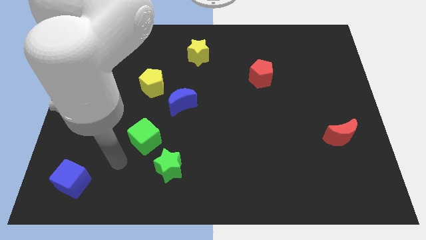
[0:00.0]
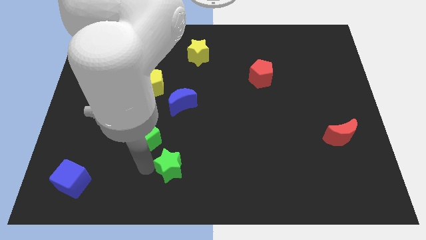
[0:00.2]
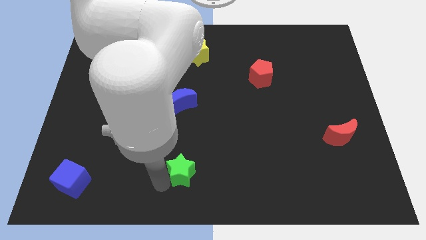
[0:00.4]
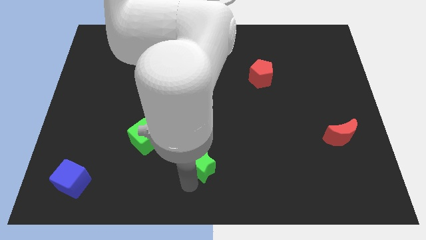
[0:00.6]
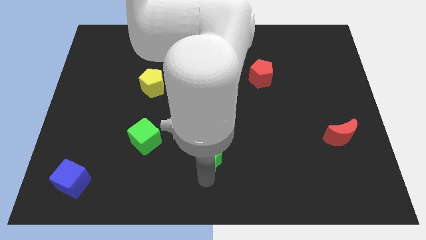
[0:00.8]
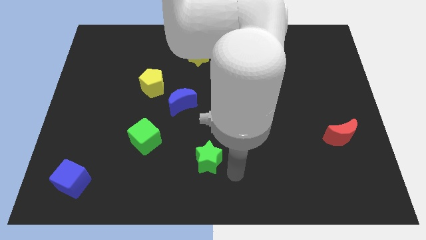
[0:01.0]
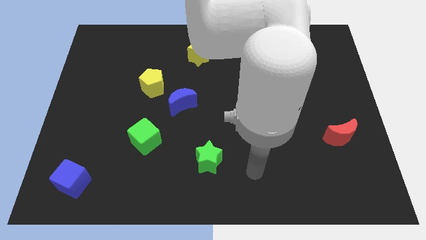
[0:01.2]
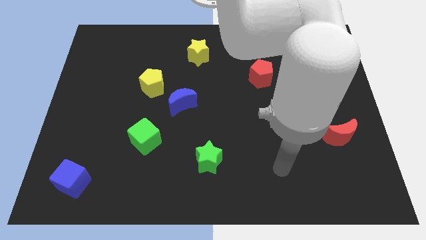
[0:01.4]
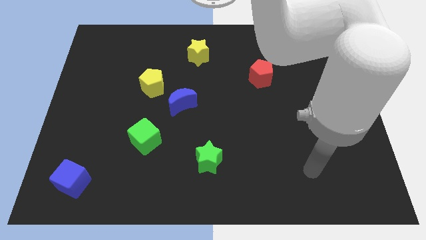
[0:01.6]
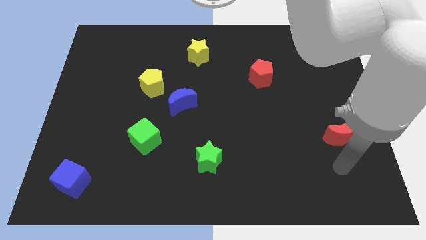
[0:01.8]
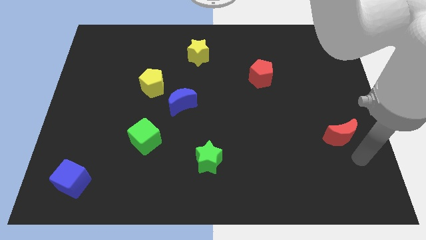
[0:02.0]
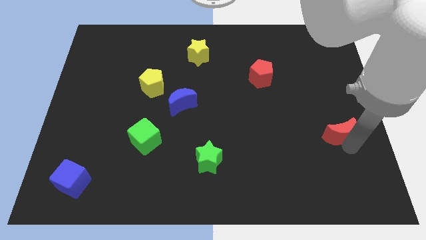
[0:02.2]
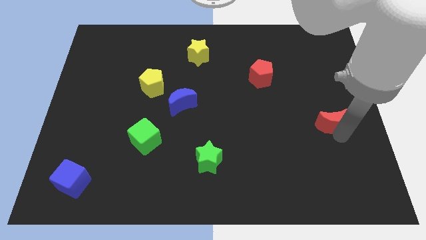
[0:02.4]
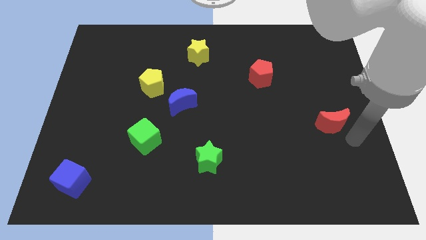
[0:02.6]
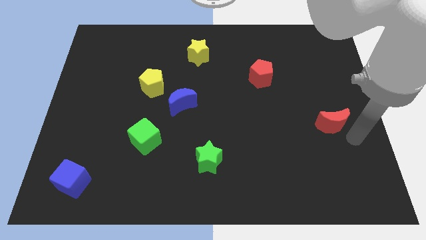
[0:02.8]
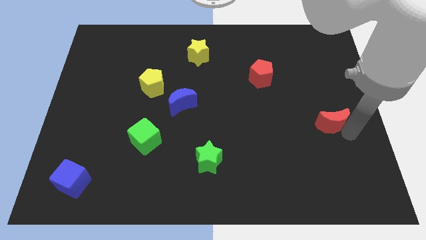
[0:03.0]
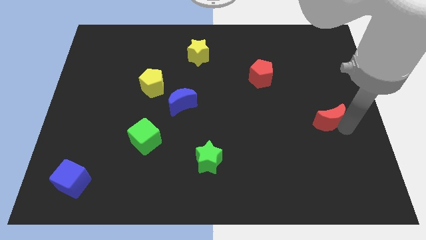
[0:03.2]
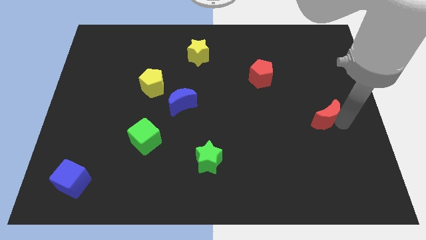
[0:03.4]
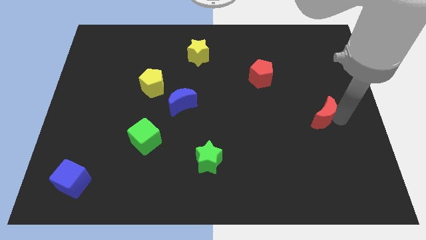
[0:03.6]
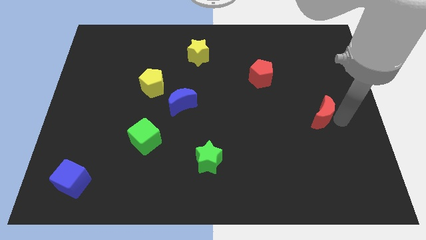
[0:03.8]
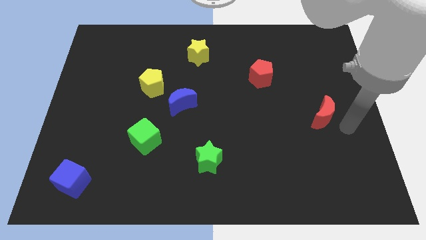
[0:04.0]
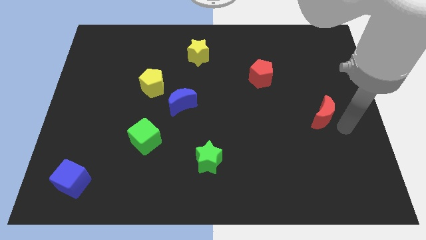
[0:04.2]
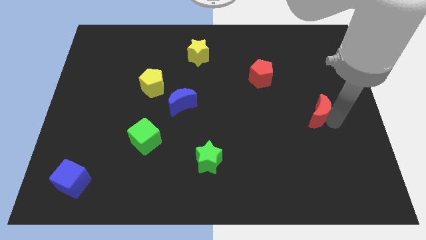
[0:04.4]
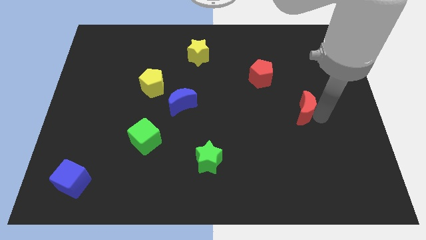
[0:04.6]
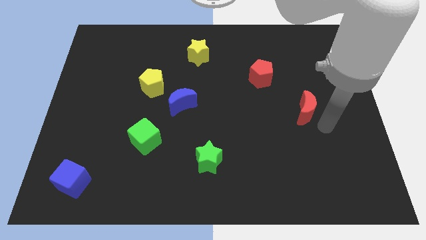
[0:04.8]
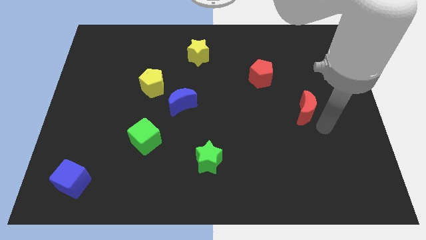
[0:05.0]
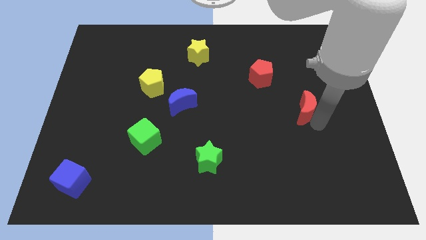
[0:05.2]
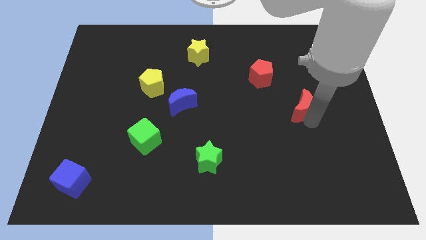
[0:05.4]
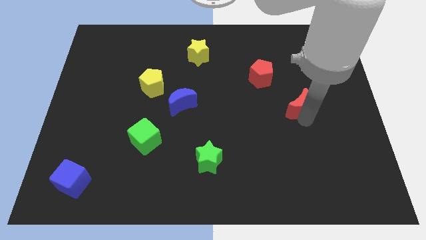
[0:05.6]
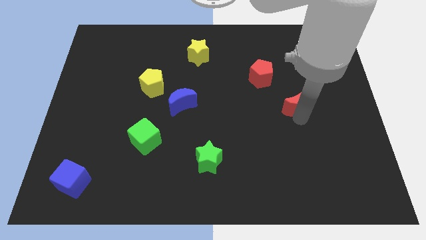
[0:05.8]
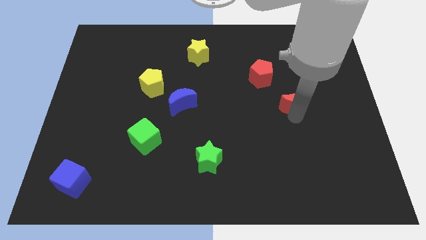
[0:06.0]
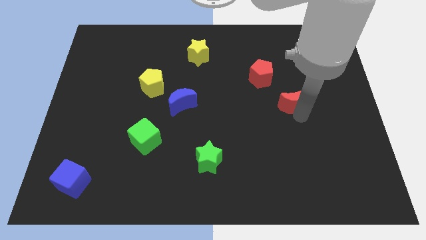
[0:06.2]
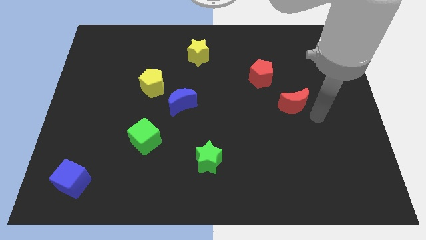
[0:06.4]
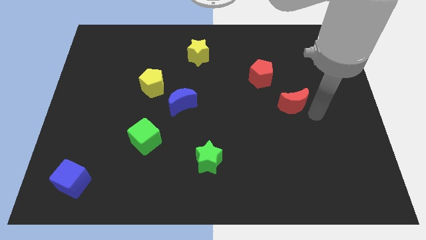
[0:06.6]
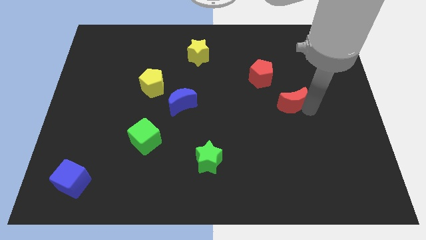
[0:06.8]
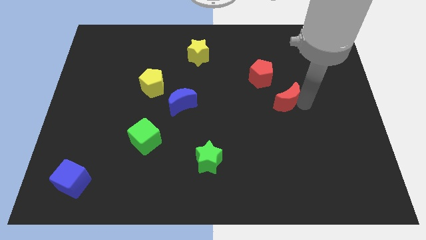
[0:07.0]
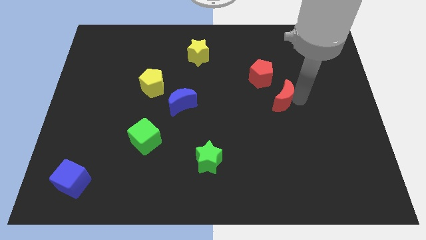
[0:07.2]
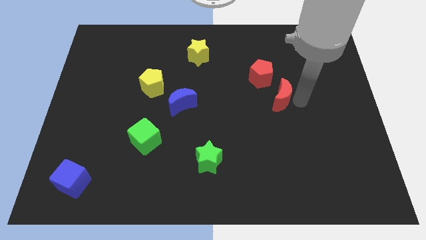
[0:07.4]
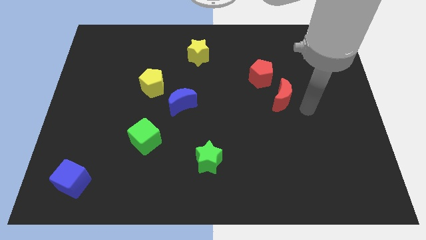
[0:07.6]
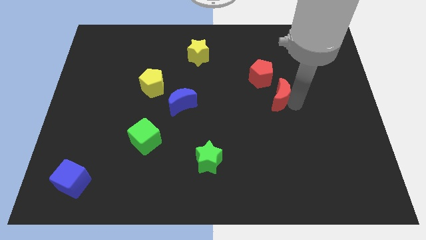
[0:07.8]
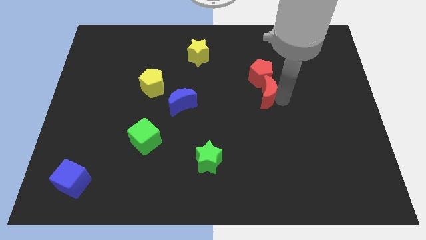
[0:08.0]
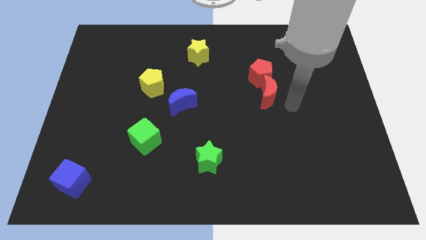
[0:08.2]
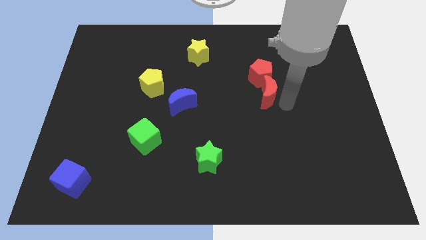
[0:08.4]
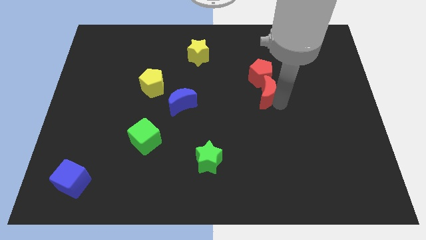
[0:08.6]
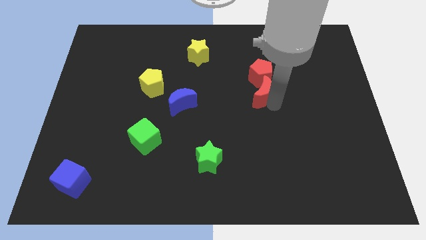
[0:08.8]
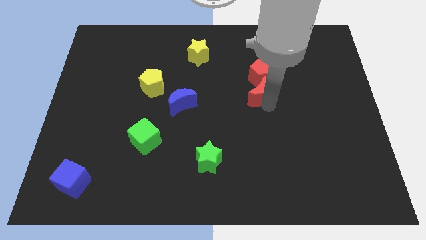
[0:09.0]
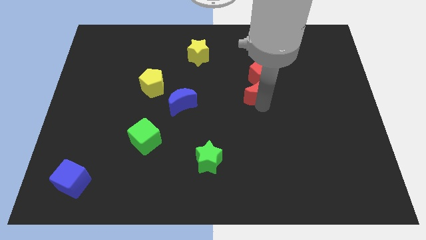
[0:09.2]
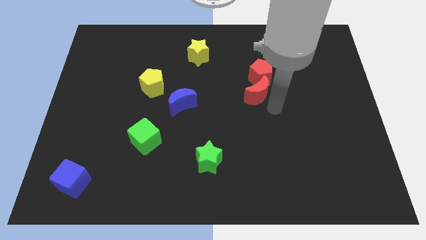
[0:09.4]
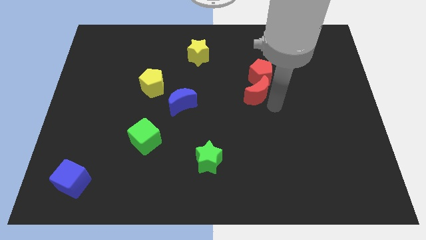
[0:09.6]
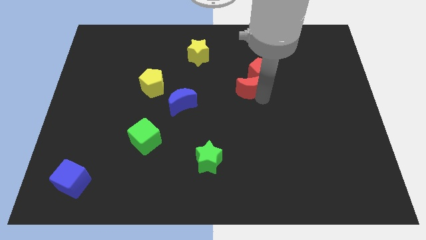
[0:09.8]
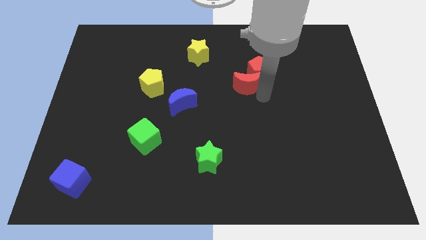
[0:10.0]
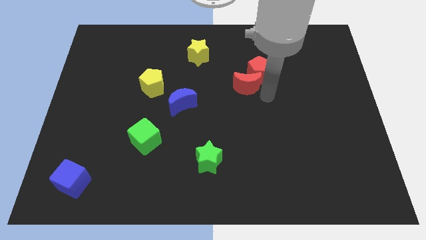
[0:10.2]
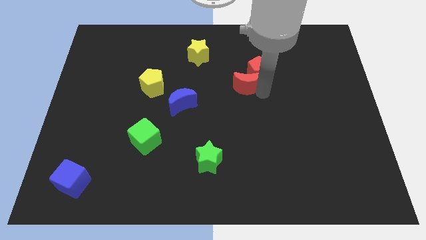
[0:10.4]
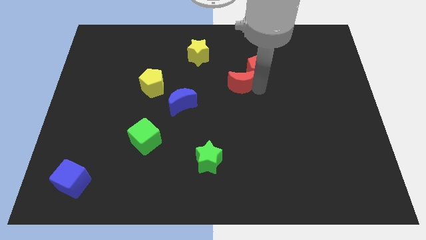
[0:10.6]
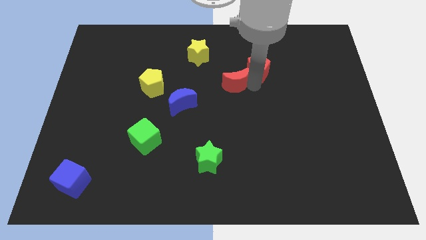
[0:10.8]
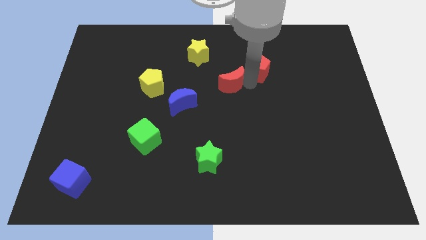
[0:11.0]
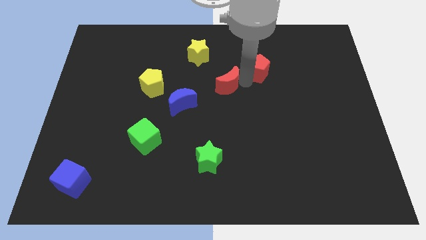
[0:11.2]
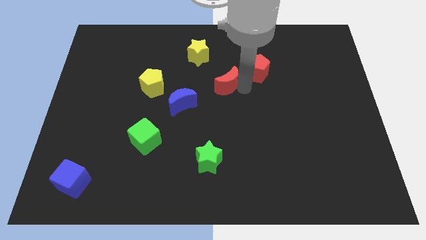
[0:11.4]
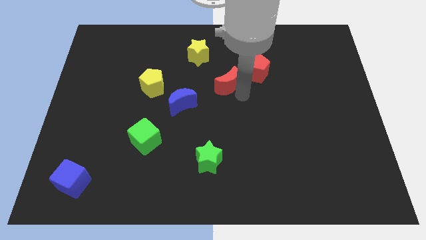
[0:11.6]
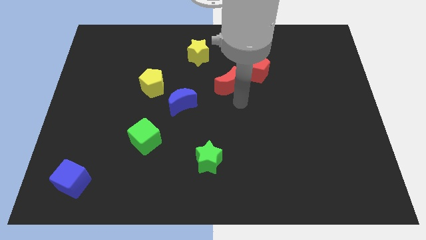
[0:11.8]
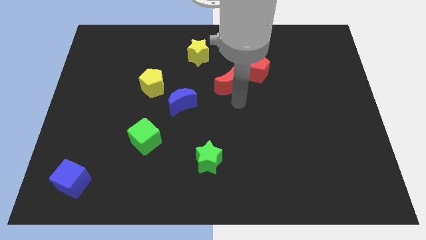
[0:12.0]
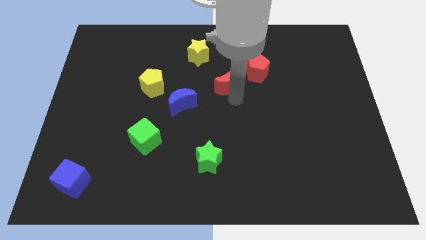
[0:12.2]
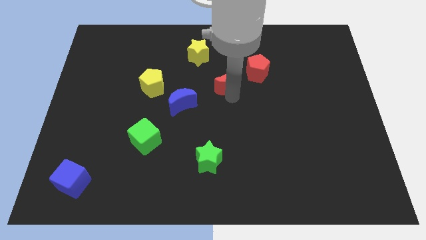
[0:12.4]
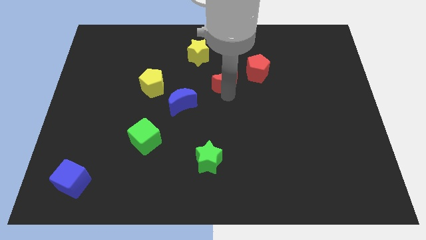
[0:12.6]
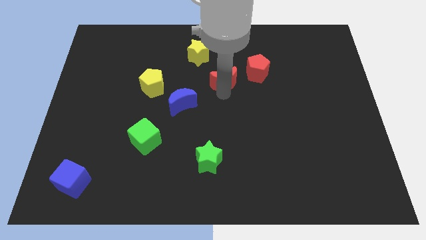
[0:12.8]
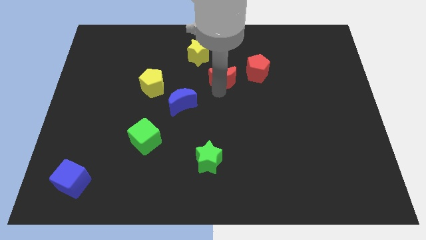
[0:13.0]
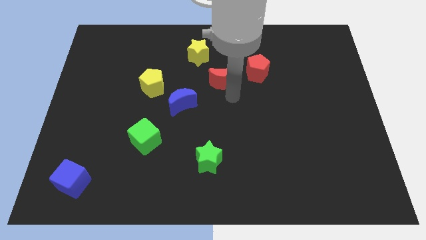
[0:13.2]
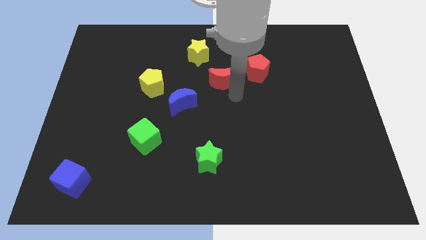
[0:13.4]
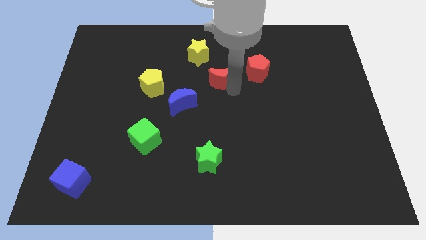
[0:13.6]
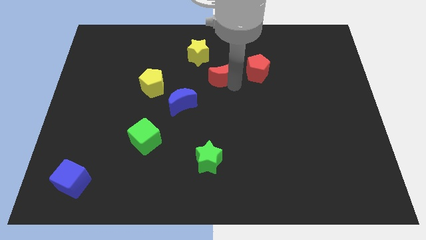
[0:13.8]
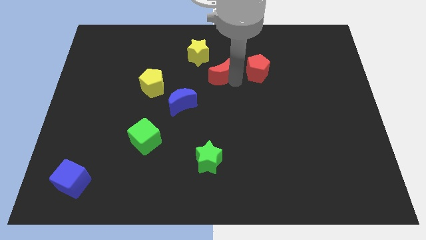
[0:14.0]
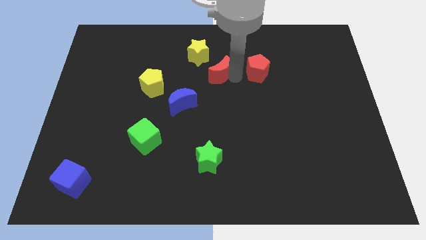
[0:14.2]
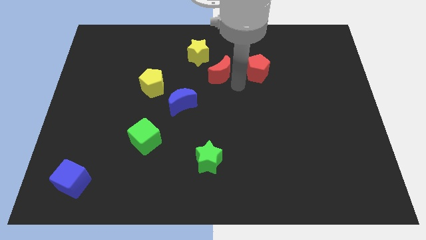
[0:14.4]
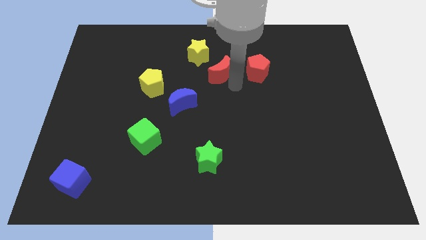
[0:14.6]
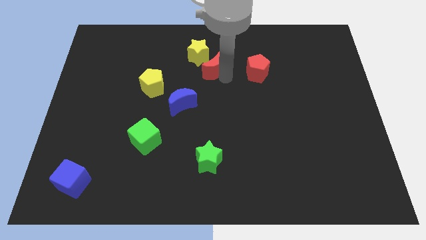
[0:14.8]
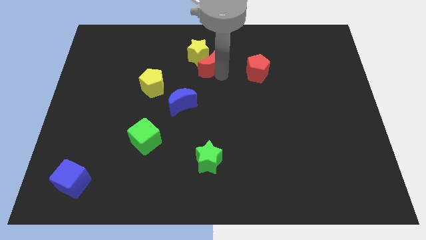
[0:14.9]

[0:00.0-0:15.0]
put the red moon next to the yellow star
